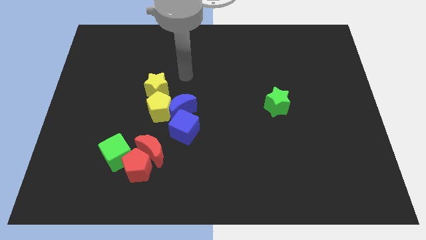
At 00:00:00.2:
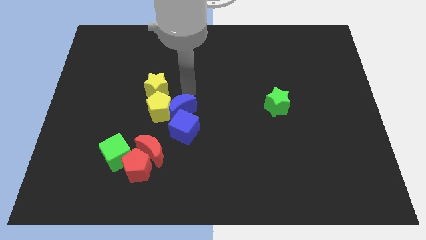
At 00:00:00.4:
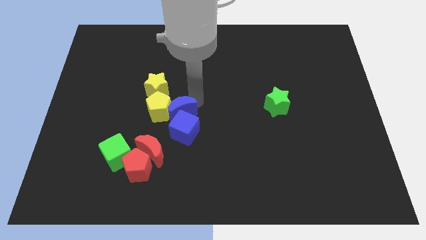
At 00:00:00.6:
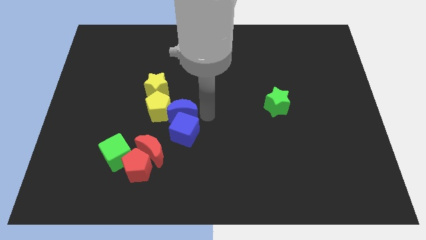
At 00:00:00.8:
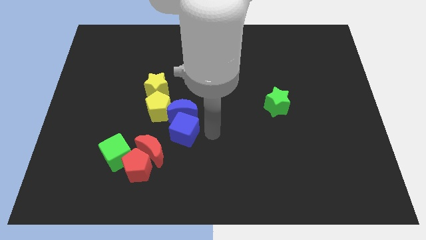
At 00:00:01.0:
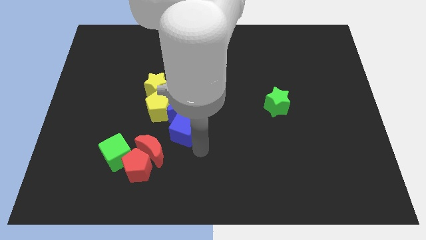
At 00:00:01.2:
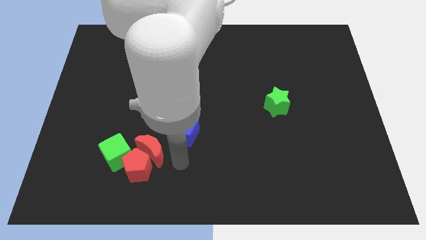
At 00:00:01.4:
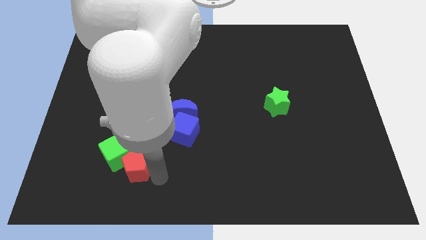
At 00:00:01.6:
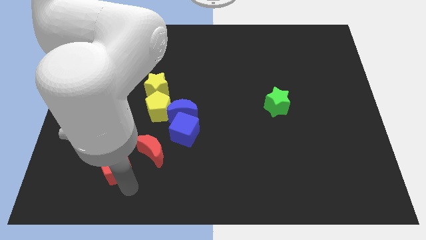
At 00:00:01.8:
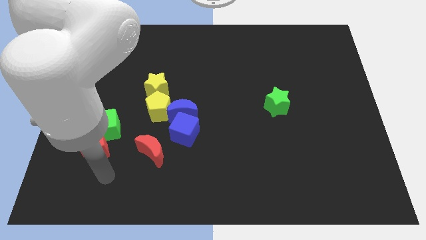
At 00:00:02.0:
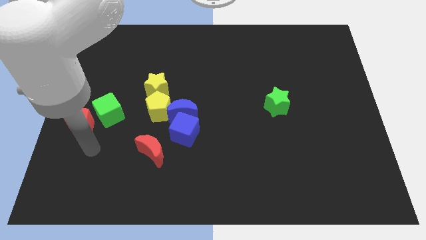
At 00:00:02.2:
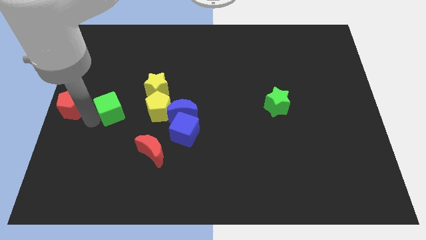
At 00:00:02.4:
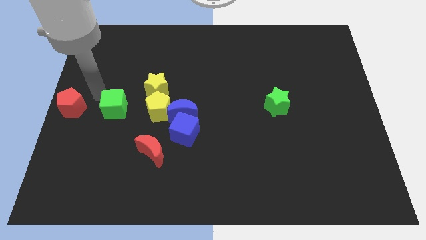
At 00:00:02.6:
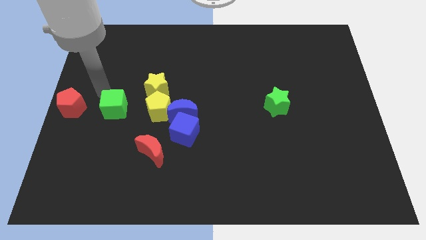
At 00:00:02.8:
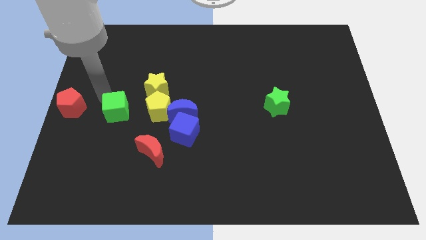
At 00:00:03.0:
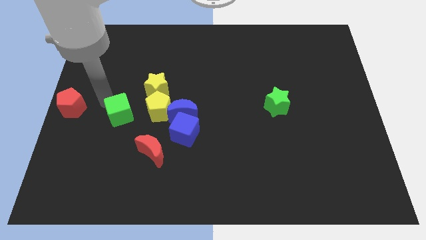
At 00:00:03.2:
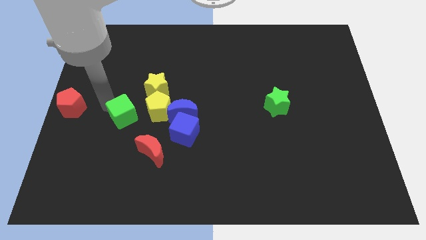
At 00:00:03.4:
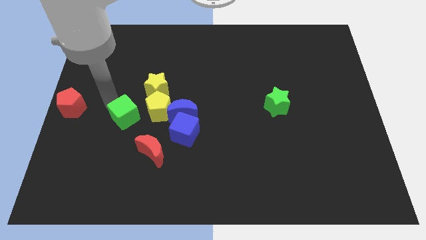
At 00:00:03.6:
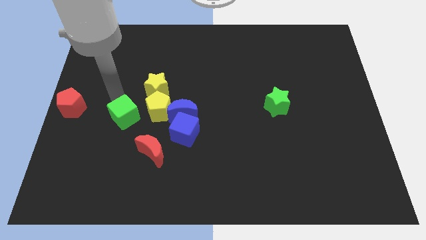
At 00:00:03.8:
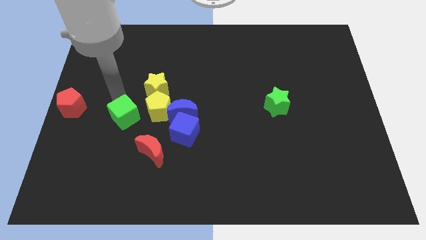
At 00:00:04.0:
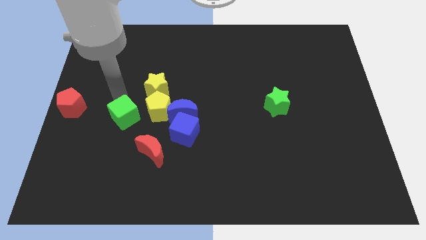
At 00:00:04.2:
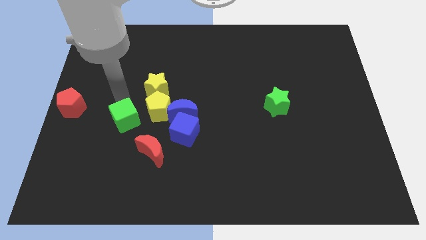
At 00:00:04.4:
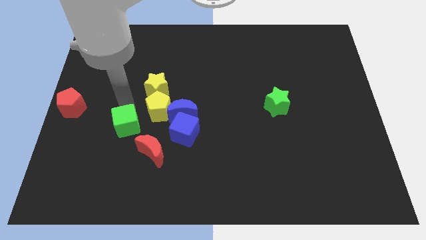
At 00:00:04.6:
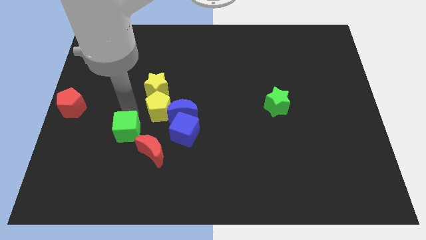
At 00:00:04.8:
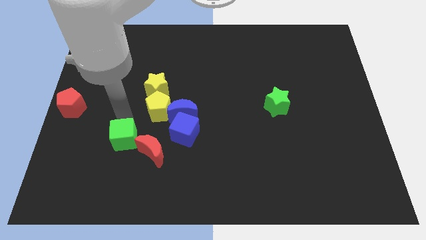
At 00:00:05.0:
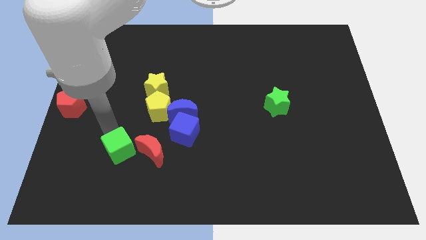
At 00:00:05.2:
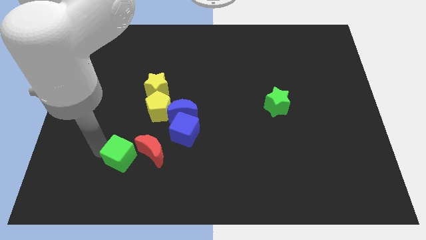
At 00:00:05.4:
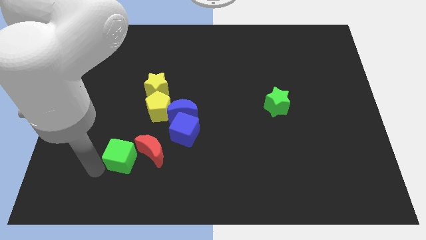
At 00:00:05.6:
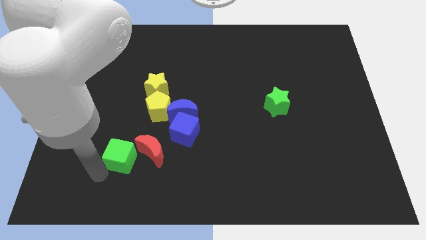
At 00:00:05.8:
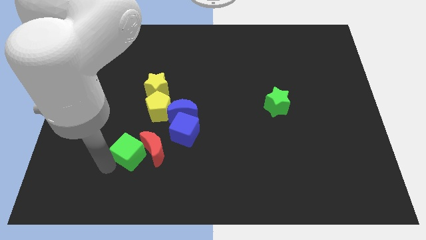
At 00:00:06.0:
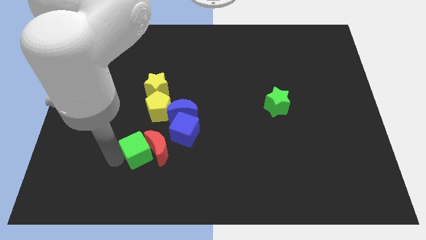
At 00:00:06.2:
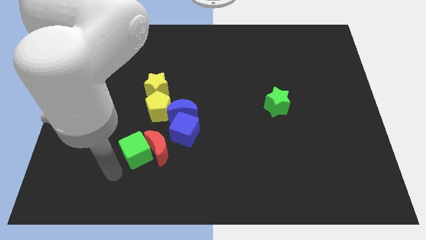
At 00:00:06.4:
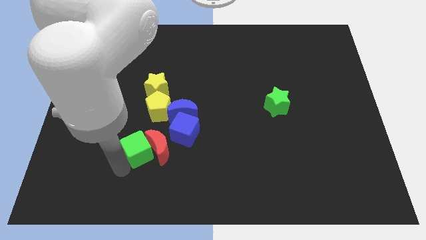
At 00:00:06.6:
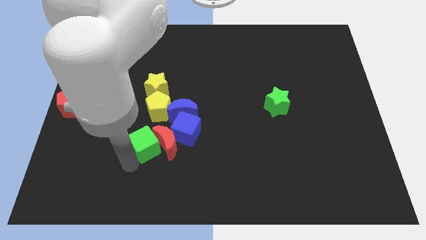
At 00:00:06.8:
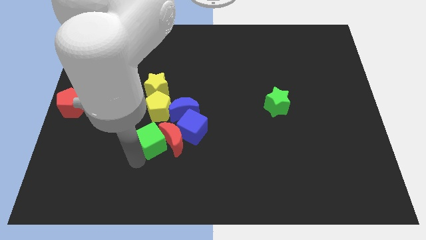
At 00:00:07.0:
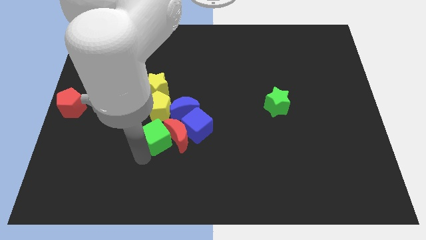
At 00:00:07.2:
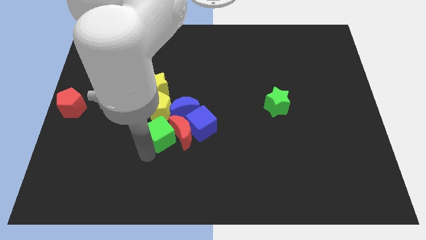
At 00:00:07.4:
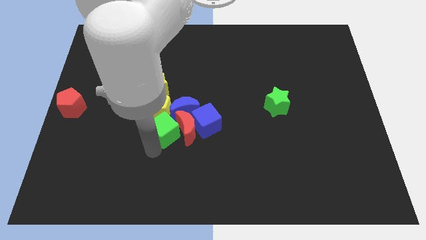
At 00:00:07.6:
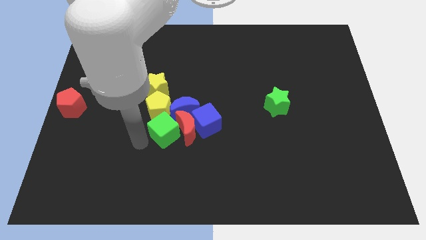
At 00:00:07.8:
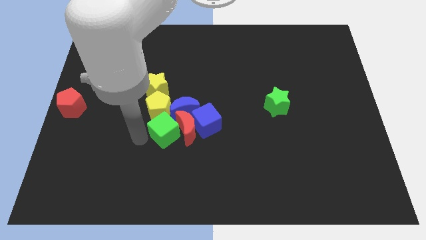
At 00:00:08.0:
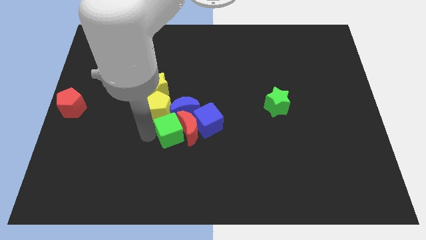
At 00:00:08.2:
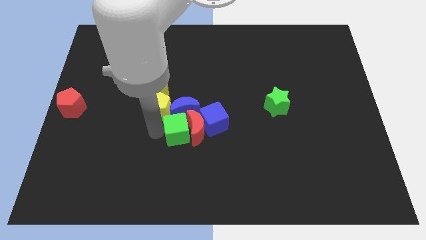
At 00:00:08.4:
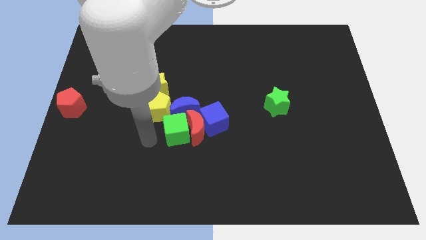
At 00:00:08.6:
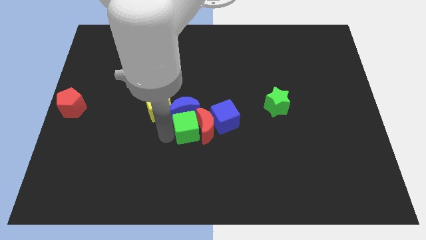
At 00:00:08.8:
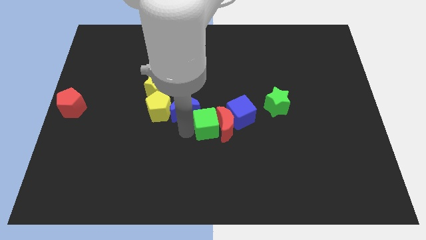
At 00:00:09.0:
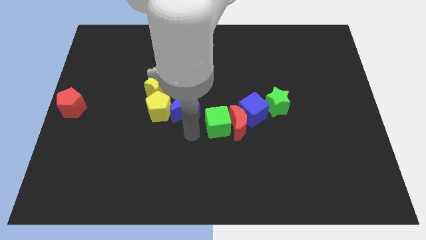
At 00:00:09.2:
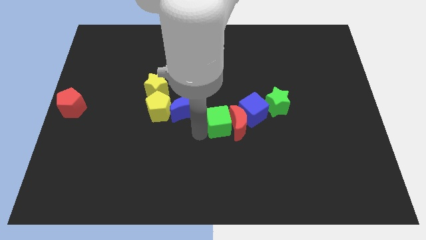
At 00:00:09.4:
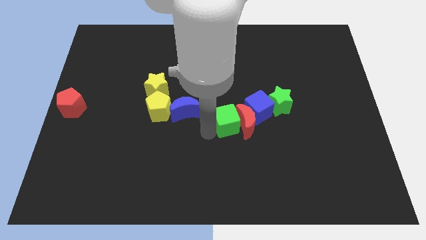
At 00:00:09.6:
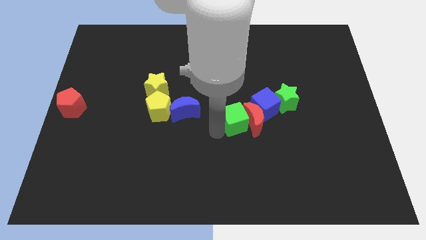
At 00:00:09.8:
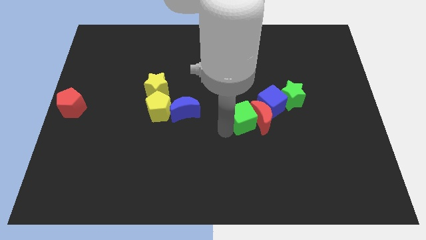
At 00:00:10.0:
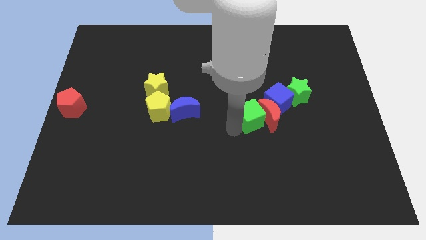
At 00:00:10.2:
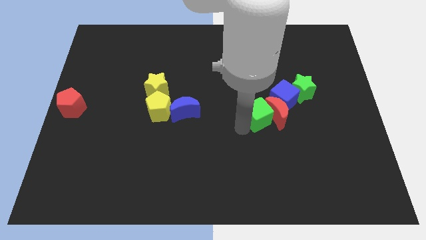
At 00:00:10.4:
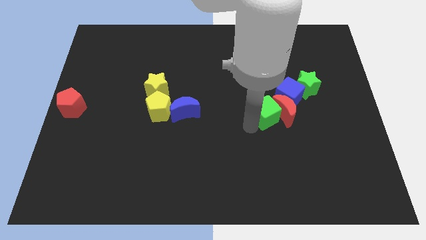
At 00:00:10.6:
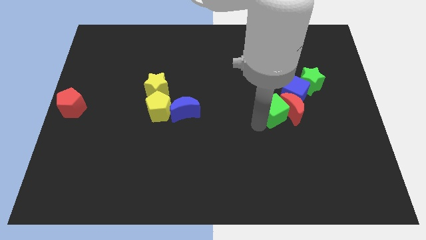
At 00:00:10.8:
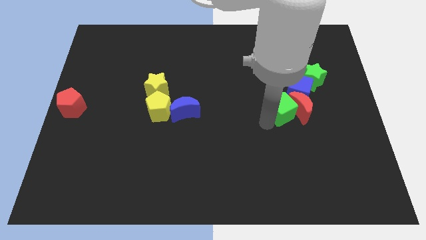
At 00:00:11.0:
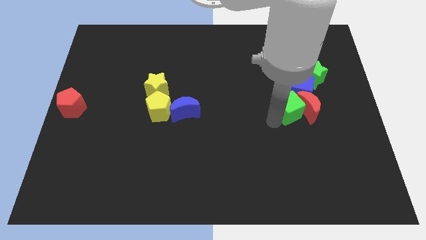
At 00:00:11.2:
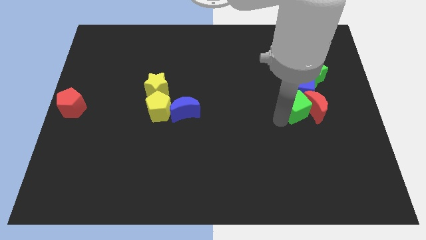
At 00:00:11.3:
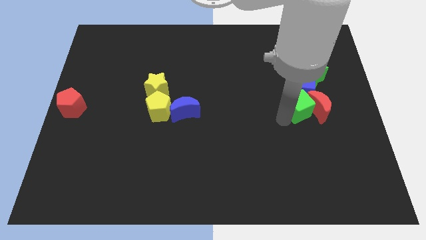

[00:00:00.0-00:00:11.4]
slide the green cube close to the blue cube

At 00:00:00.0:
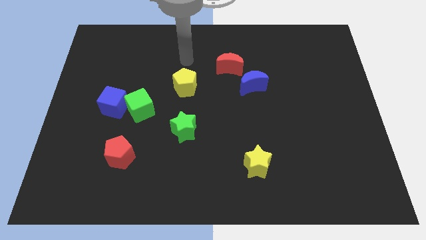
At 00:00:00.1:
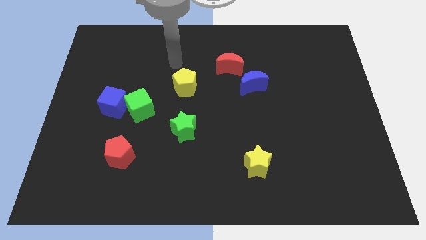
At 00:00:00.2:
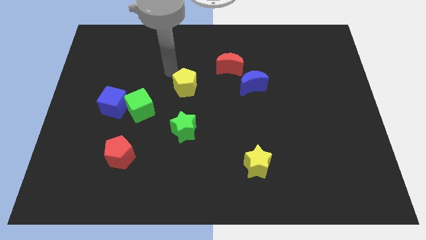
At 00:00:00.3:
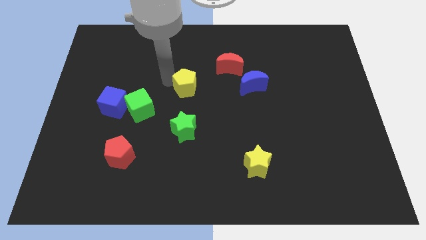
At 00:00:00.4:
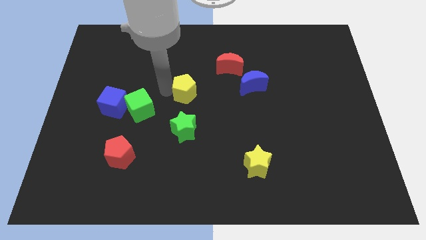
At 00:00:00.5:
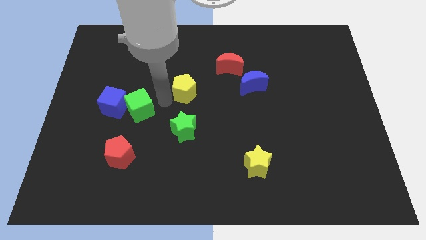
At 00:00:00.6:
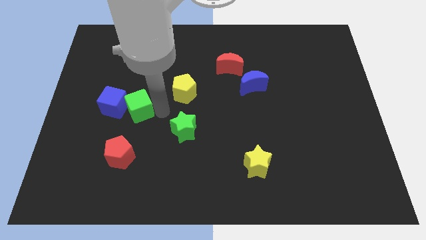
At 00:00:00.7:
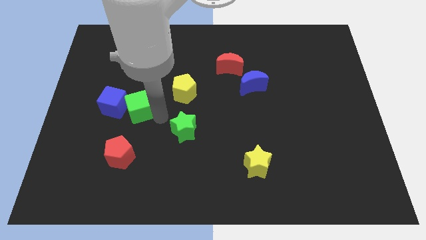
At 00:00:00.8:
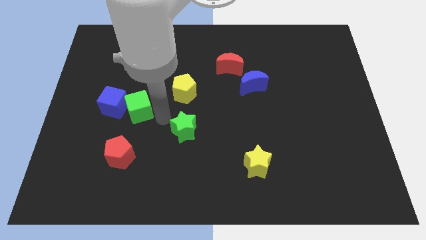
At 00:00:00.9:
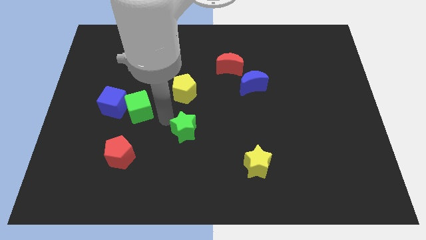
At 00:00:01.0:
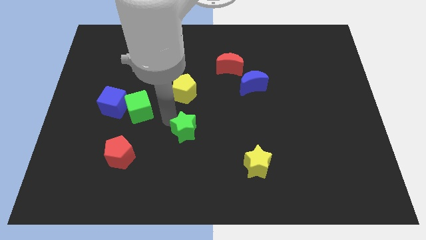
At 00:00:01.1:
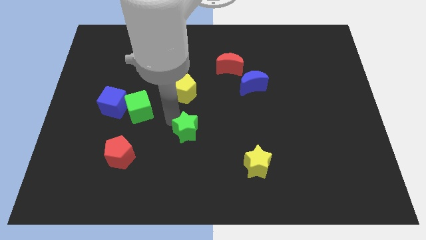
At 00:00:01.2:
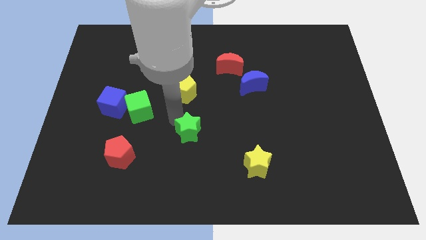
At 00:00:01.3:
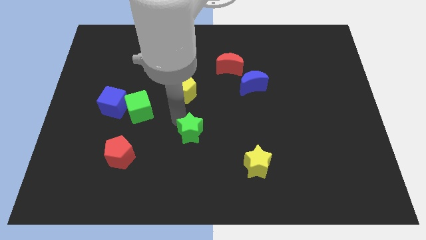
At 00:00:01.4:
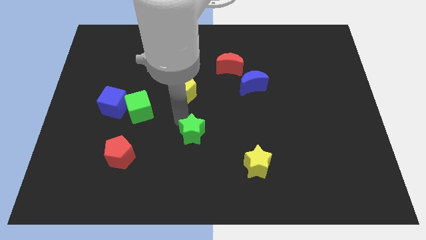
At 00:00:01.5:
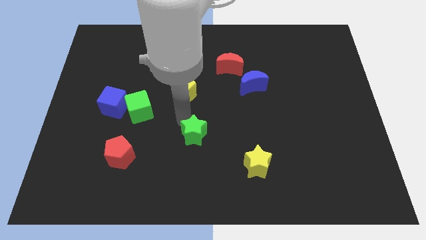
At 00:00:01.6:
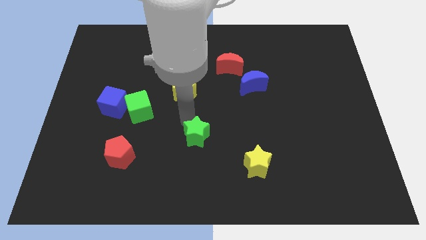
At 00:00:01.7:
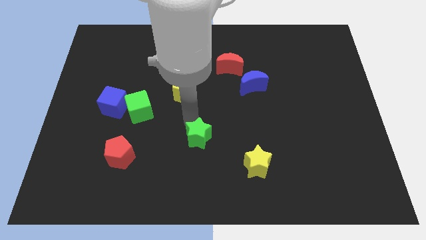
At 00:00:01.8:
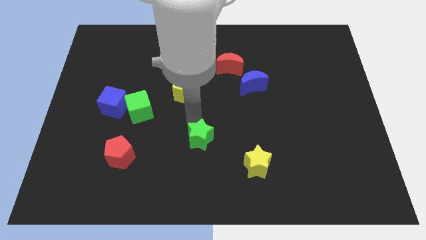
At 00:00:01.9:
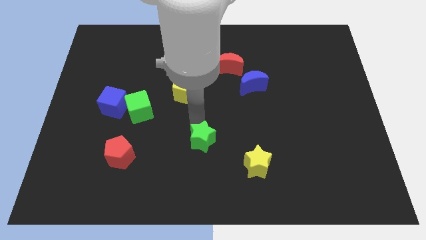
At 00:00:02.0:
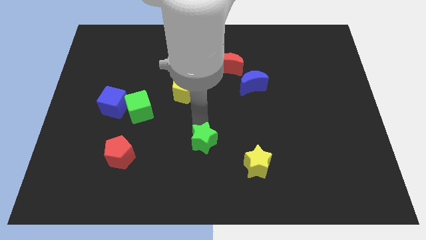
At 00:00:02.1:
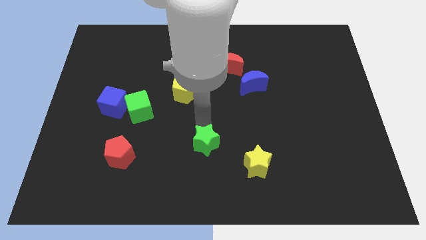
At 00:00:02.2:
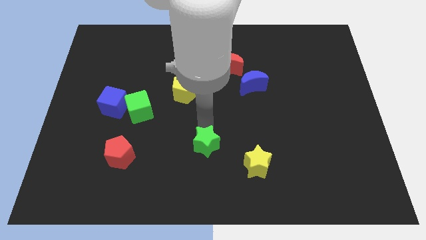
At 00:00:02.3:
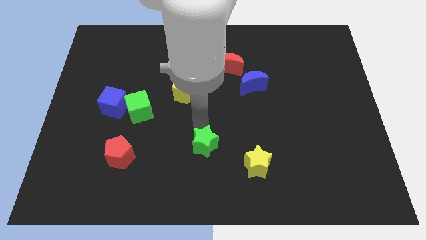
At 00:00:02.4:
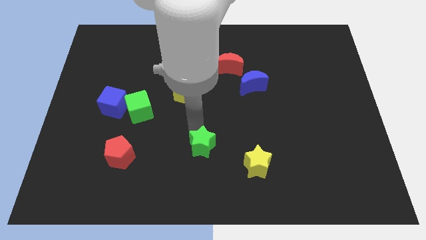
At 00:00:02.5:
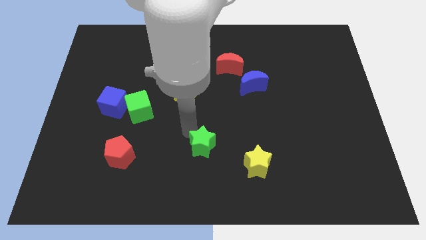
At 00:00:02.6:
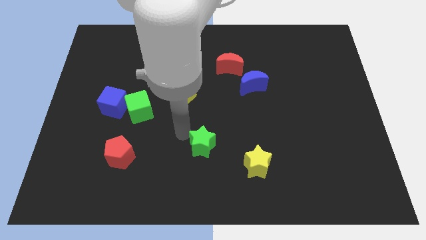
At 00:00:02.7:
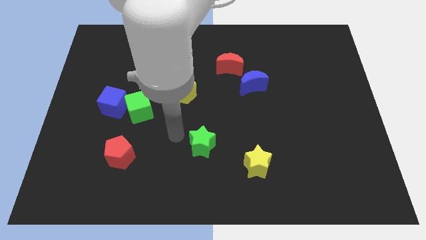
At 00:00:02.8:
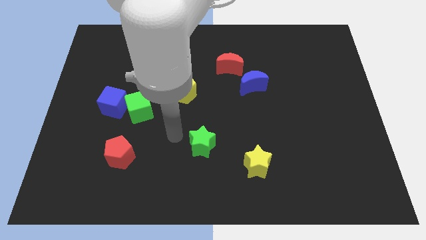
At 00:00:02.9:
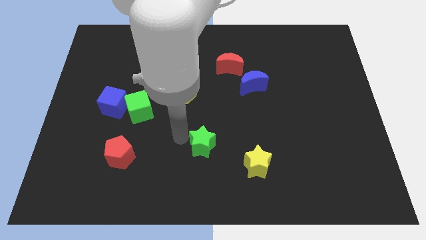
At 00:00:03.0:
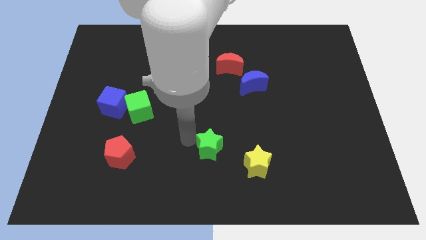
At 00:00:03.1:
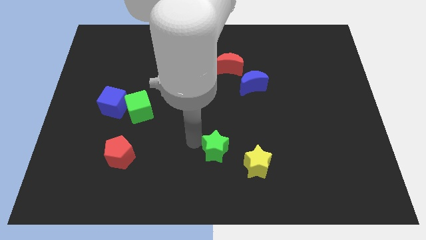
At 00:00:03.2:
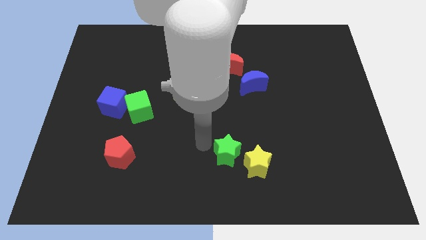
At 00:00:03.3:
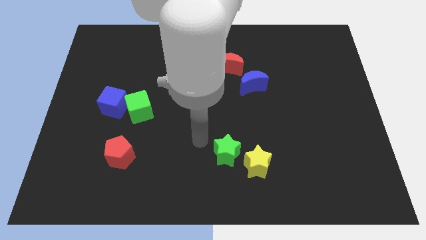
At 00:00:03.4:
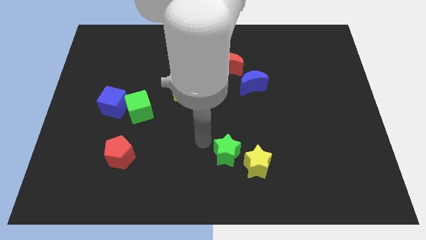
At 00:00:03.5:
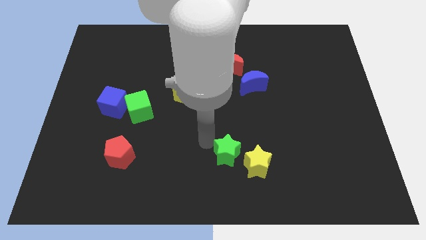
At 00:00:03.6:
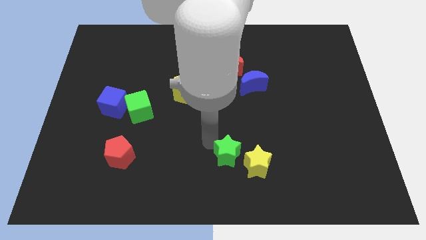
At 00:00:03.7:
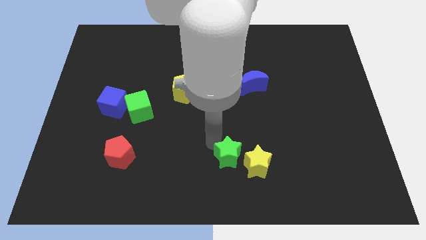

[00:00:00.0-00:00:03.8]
push the green star towards the yellow star
